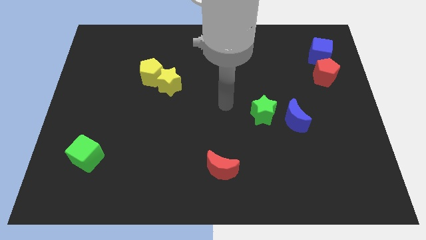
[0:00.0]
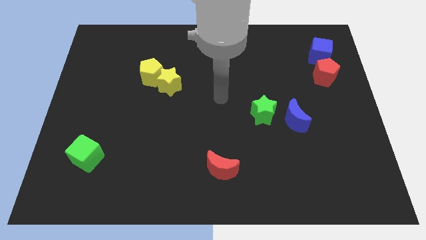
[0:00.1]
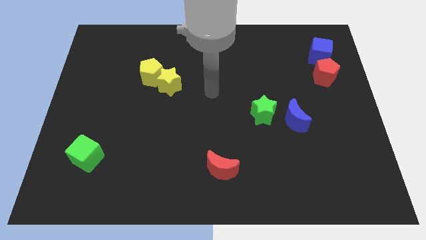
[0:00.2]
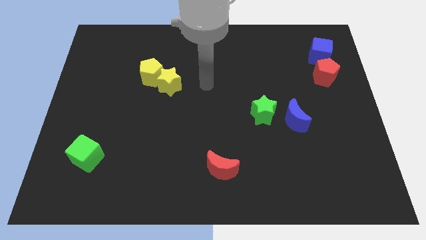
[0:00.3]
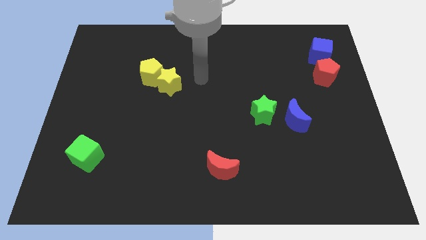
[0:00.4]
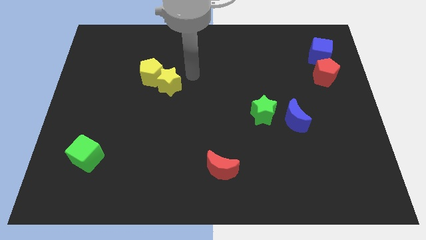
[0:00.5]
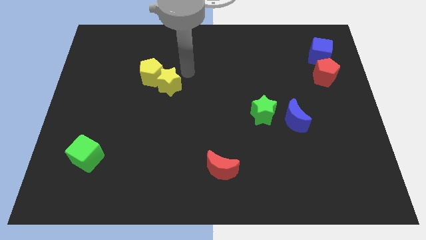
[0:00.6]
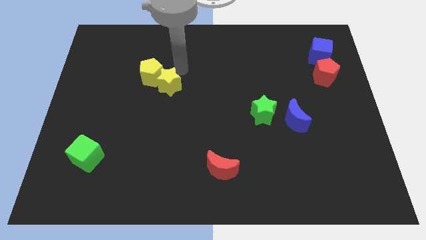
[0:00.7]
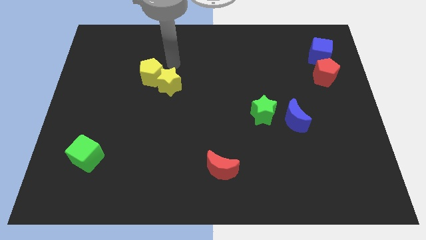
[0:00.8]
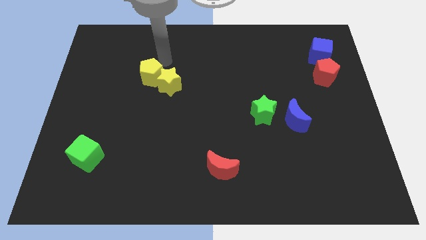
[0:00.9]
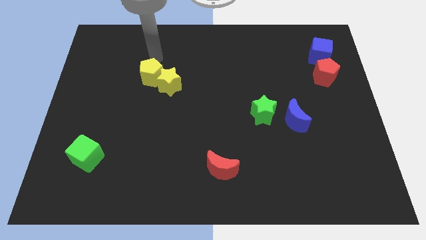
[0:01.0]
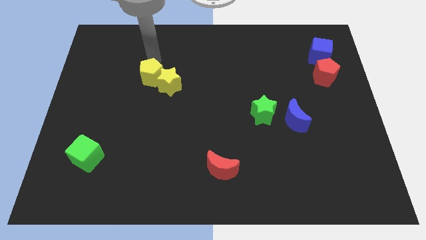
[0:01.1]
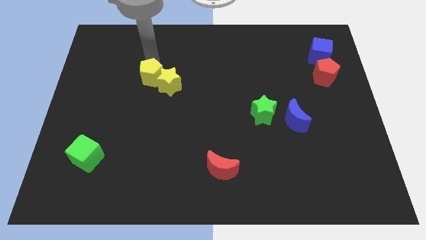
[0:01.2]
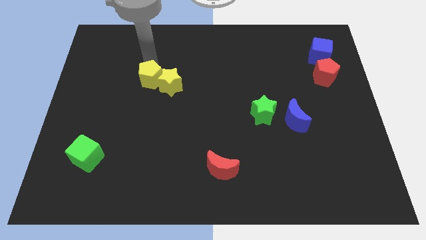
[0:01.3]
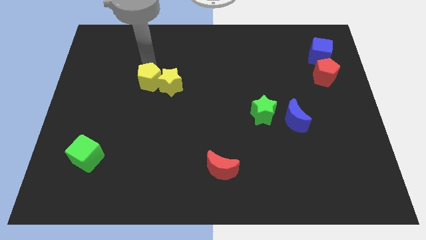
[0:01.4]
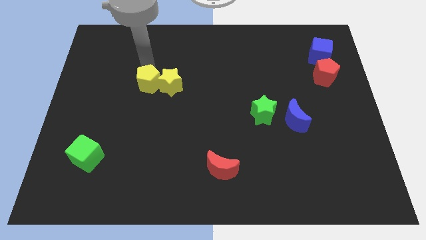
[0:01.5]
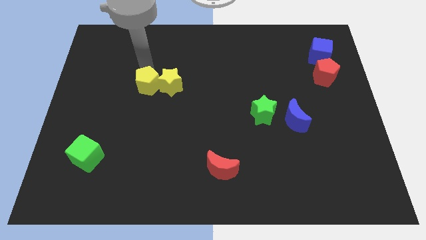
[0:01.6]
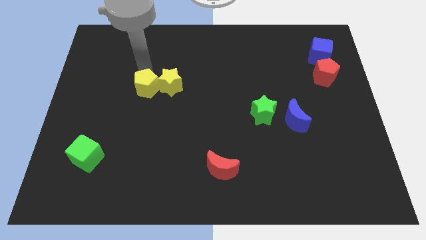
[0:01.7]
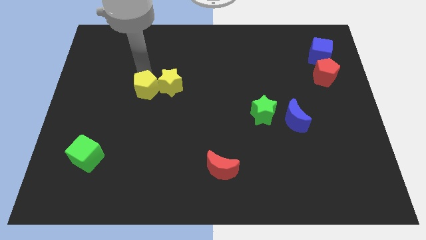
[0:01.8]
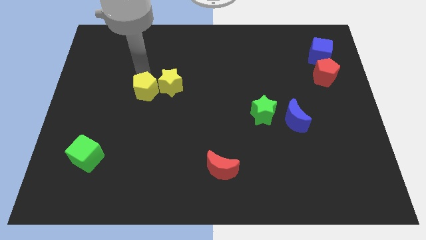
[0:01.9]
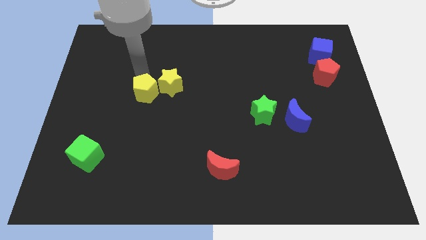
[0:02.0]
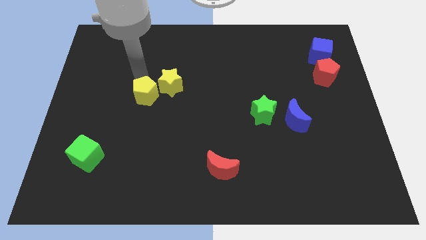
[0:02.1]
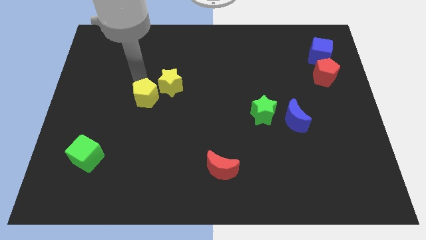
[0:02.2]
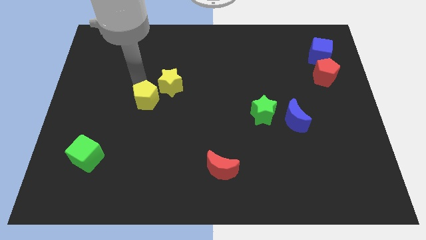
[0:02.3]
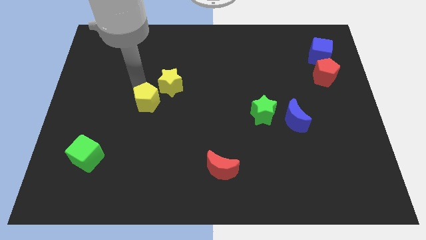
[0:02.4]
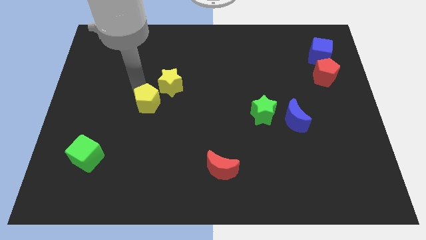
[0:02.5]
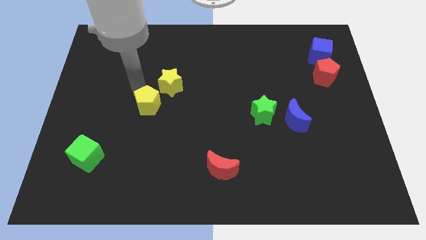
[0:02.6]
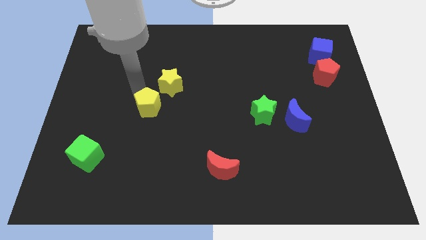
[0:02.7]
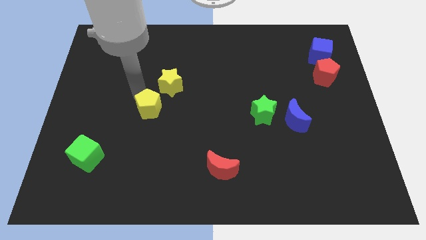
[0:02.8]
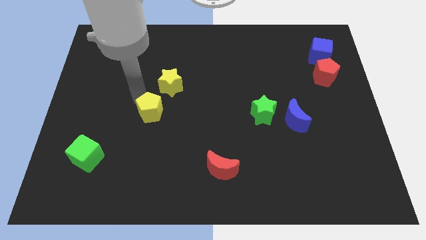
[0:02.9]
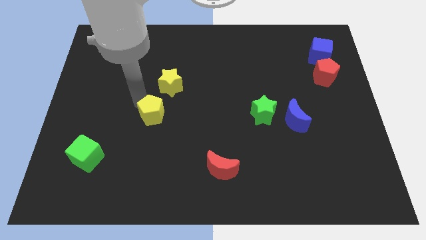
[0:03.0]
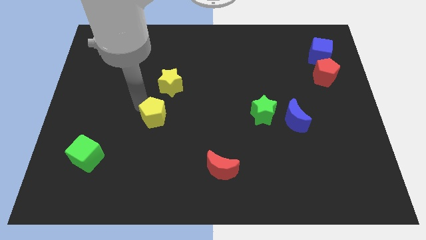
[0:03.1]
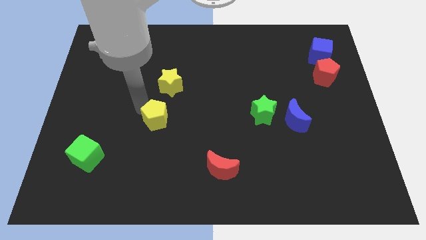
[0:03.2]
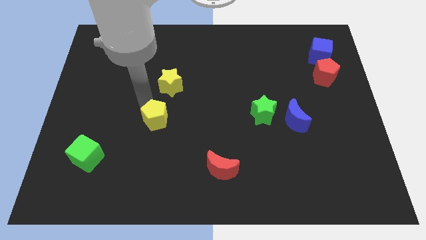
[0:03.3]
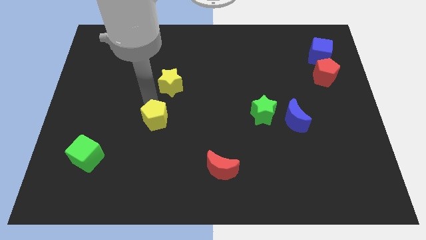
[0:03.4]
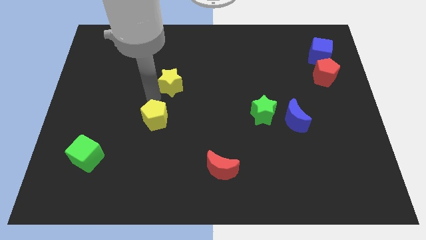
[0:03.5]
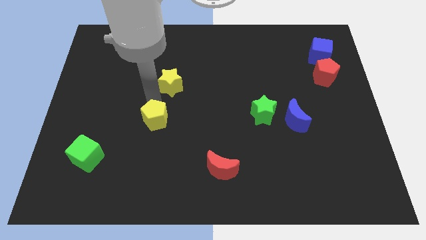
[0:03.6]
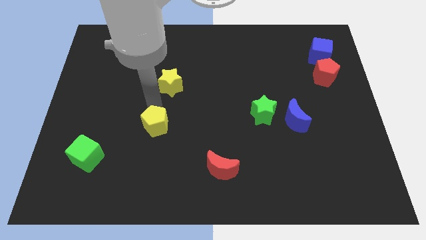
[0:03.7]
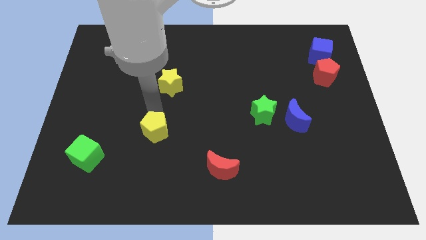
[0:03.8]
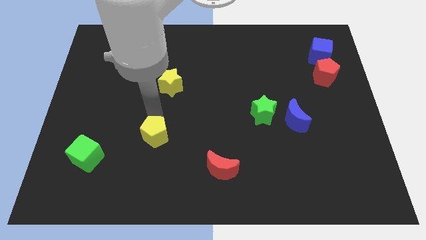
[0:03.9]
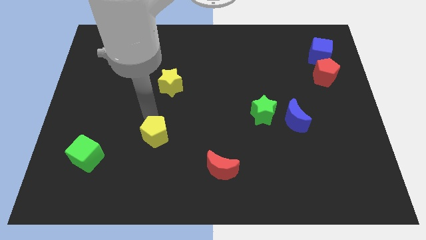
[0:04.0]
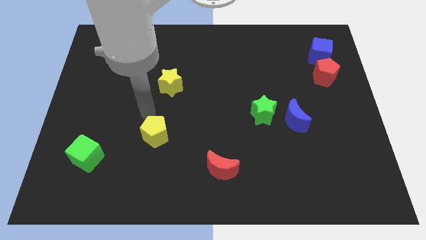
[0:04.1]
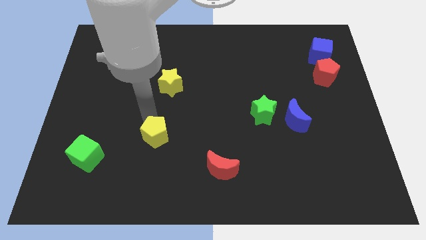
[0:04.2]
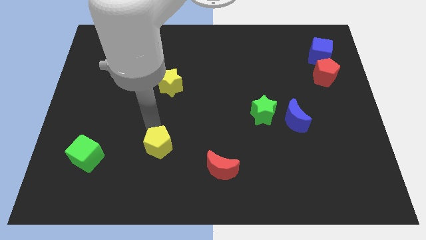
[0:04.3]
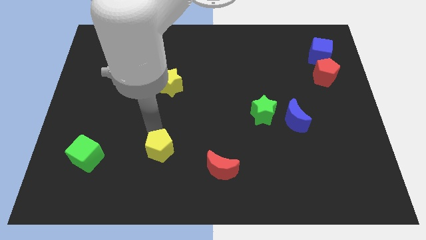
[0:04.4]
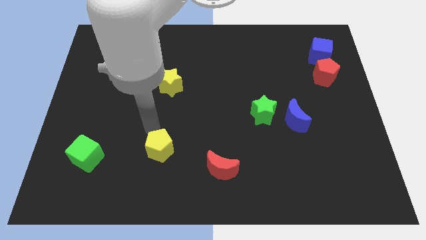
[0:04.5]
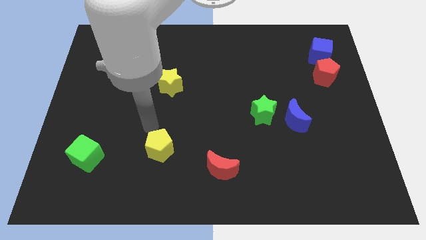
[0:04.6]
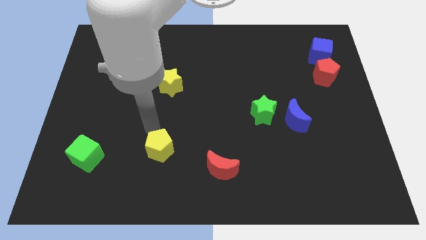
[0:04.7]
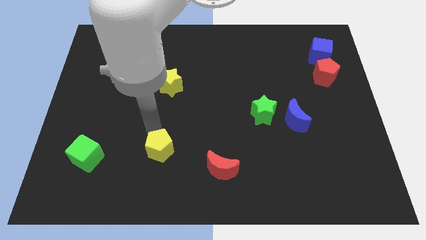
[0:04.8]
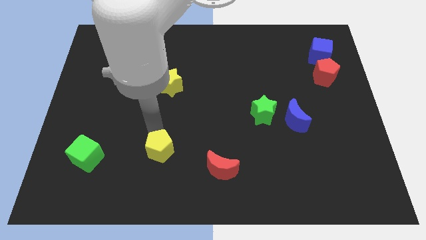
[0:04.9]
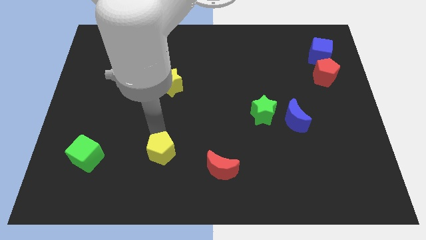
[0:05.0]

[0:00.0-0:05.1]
move the yellow pentagon left of the red moon

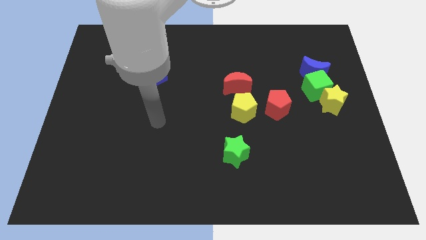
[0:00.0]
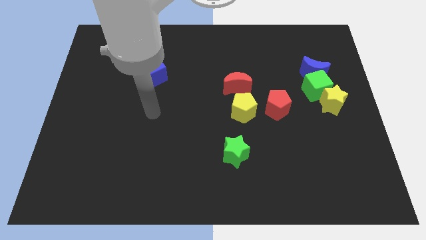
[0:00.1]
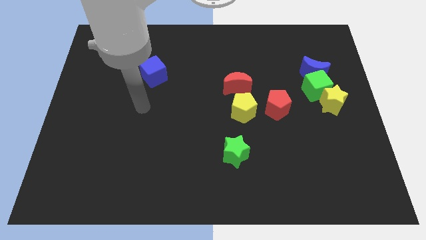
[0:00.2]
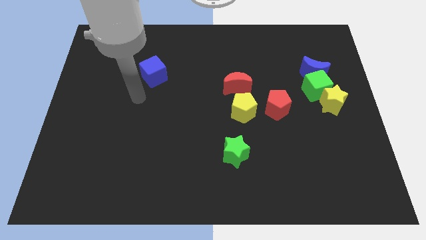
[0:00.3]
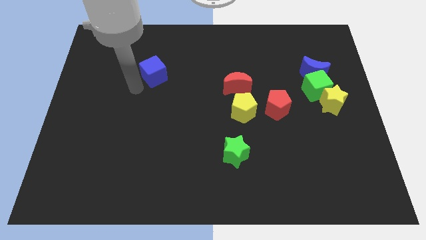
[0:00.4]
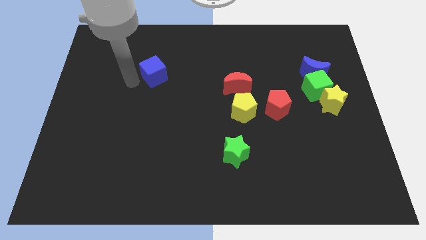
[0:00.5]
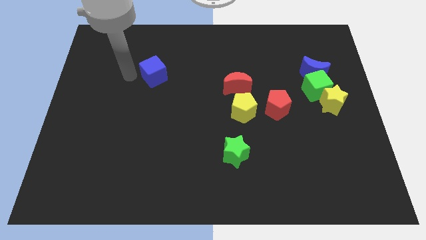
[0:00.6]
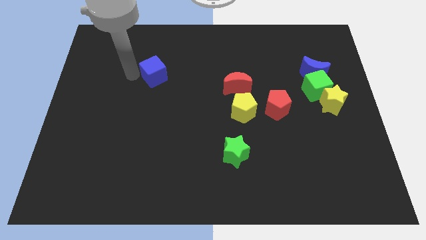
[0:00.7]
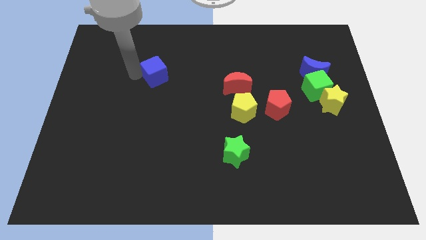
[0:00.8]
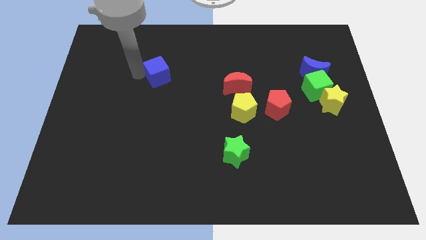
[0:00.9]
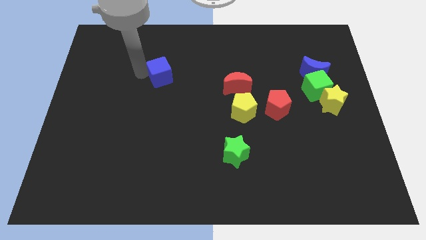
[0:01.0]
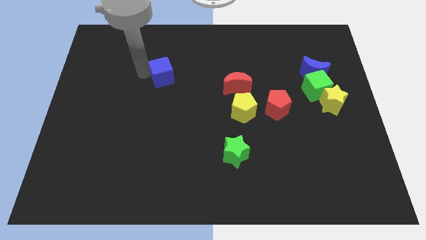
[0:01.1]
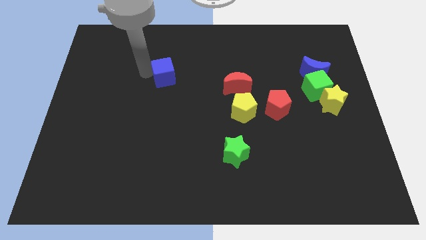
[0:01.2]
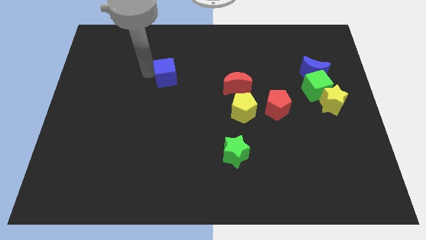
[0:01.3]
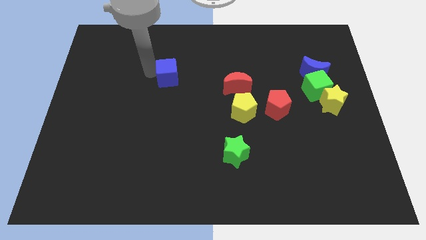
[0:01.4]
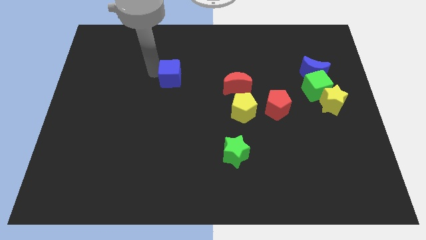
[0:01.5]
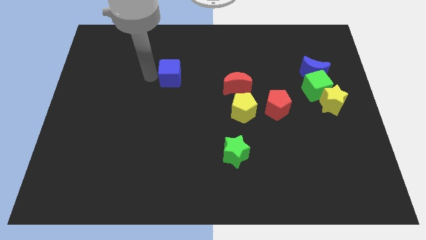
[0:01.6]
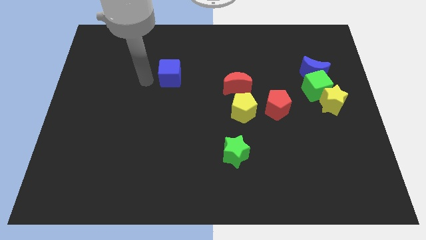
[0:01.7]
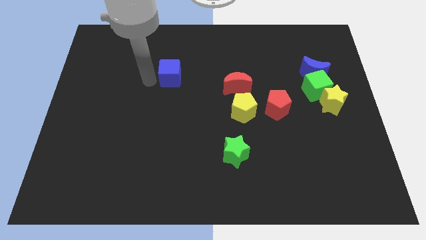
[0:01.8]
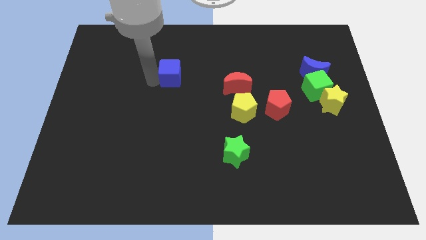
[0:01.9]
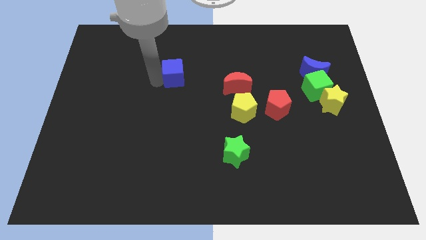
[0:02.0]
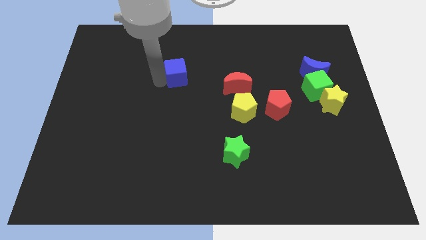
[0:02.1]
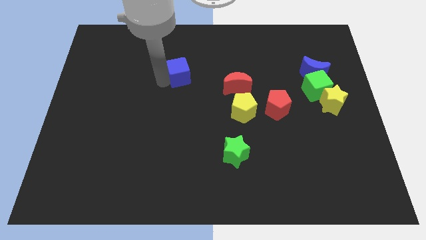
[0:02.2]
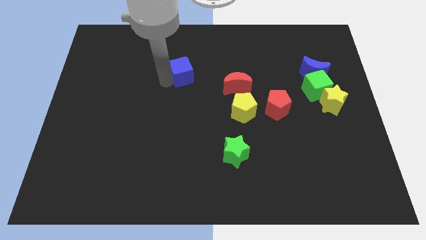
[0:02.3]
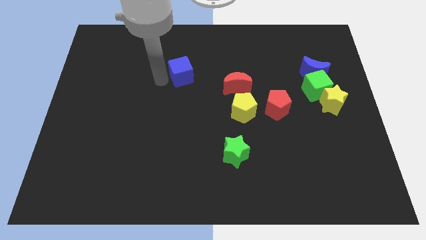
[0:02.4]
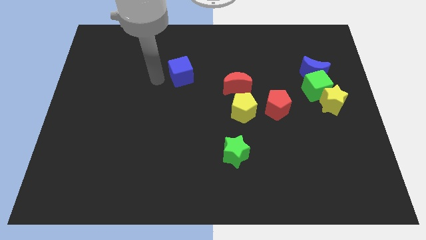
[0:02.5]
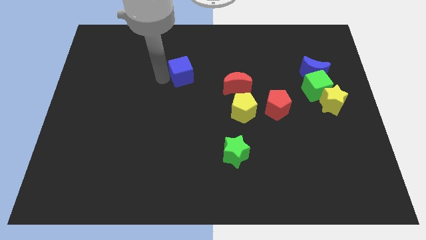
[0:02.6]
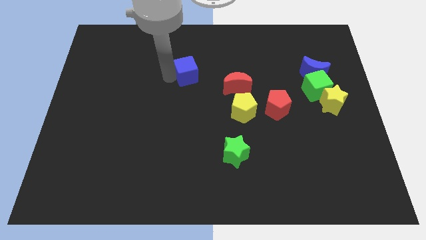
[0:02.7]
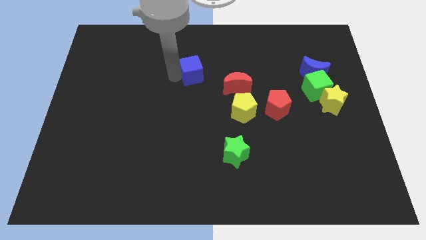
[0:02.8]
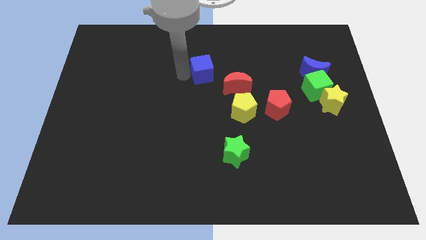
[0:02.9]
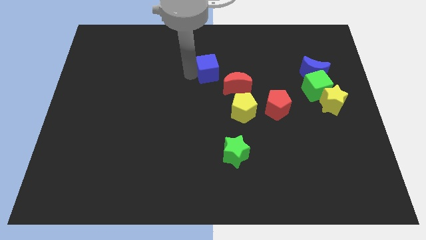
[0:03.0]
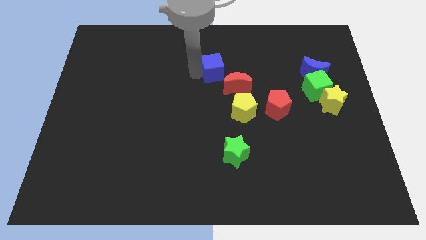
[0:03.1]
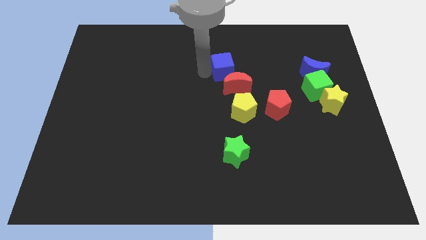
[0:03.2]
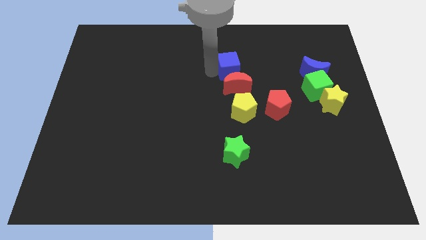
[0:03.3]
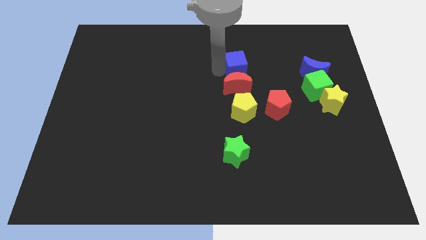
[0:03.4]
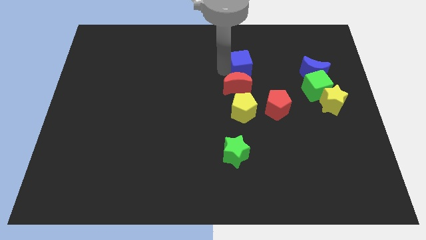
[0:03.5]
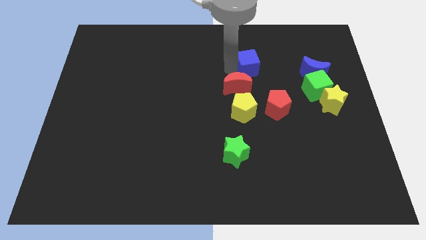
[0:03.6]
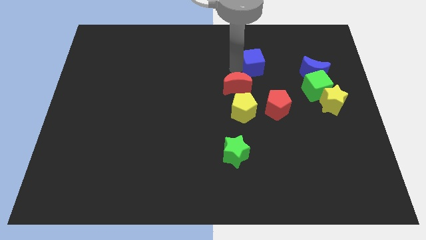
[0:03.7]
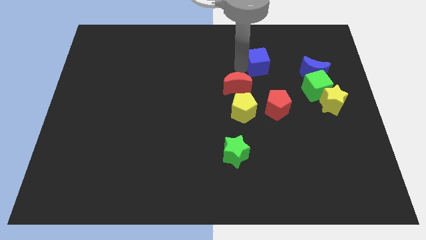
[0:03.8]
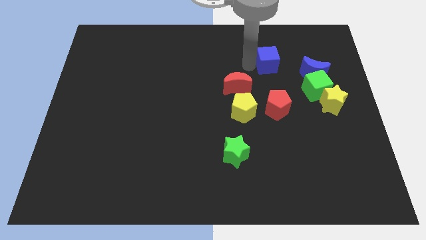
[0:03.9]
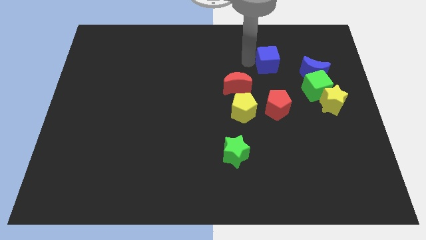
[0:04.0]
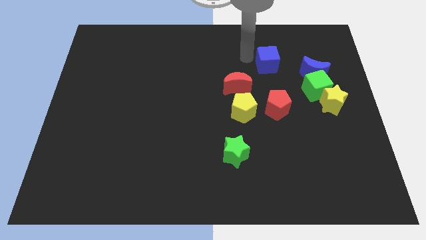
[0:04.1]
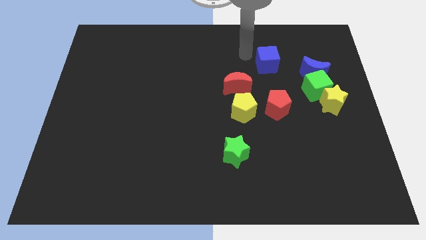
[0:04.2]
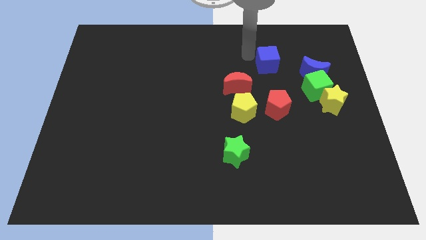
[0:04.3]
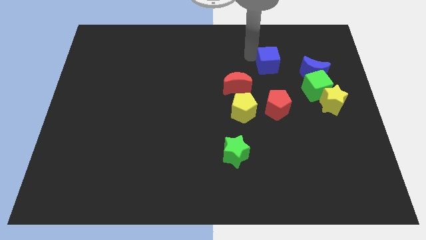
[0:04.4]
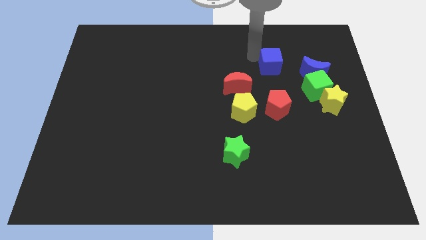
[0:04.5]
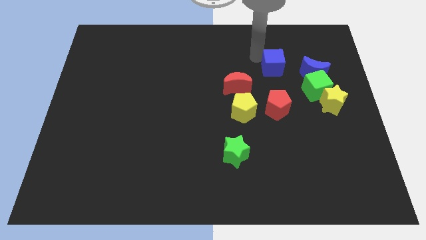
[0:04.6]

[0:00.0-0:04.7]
put the blue cube to the top left of the green cube
